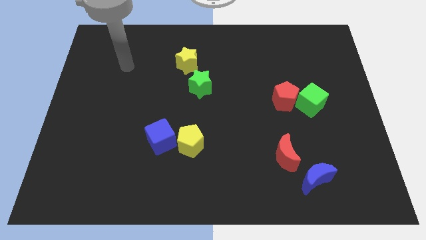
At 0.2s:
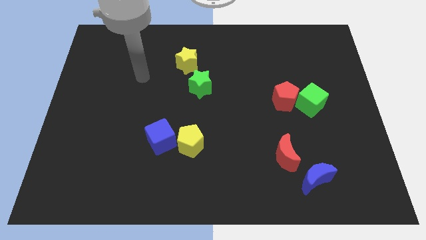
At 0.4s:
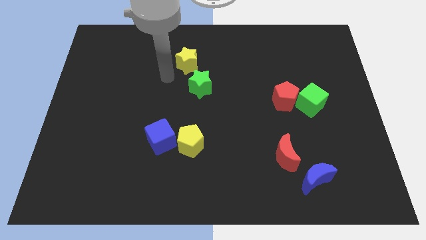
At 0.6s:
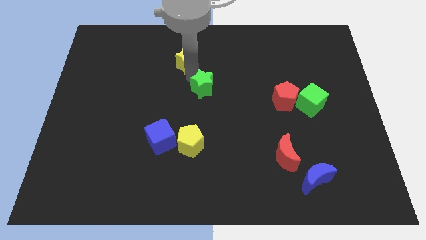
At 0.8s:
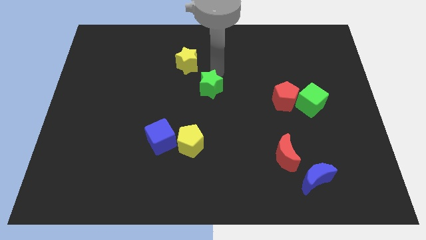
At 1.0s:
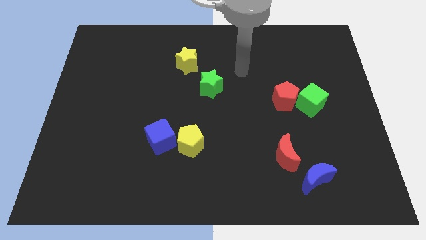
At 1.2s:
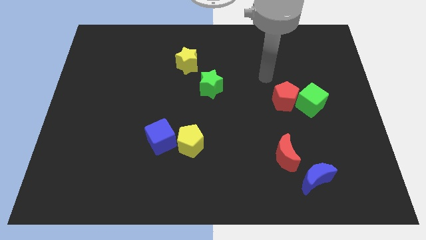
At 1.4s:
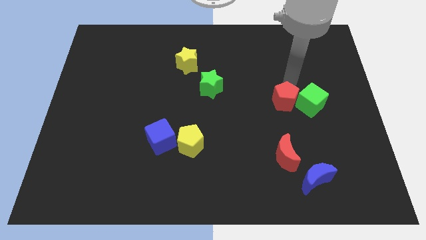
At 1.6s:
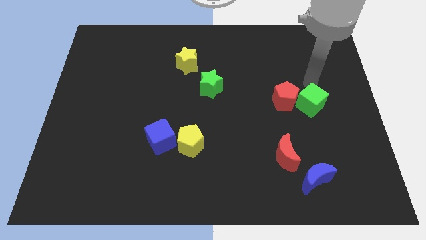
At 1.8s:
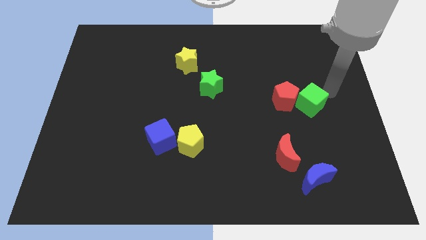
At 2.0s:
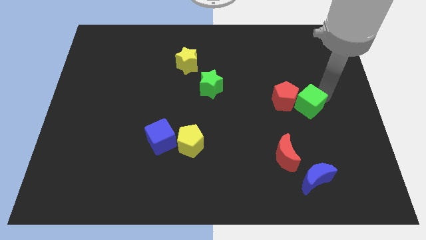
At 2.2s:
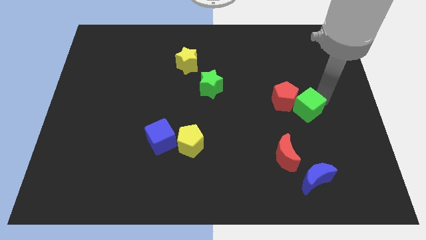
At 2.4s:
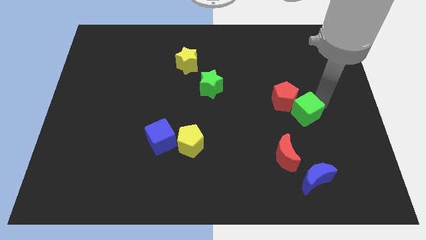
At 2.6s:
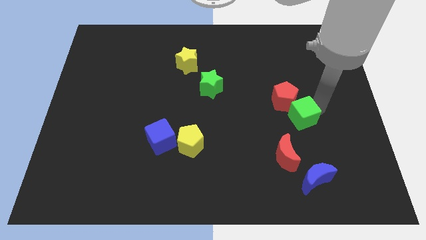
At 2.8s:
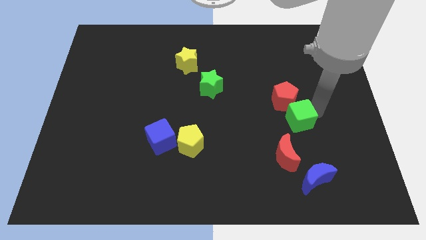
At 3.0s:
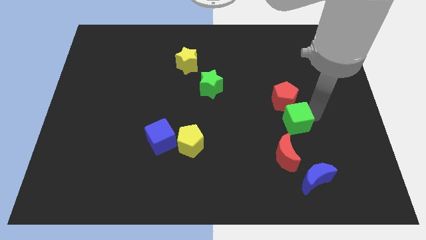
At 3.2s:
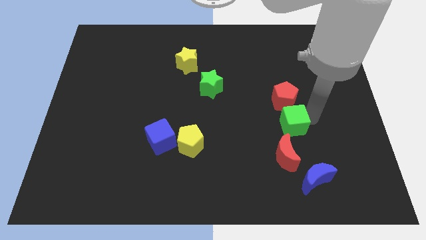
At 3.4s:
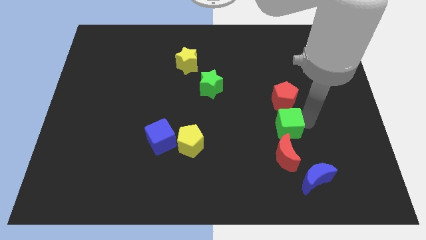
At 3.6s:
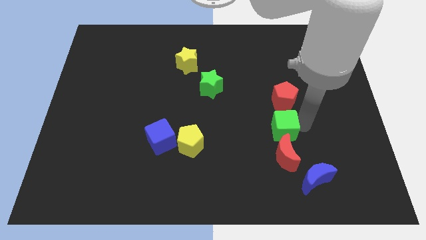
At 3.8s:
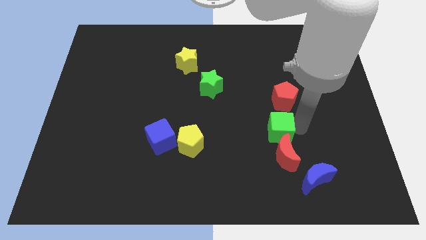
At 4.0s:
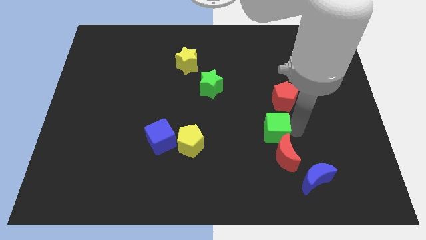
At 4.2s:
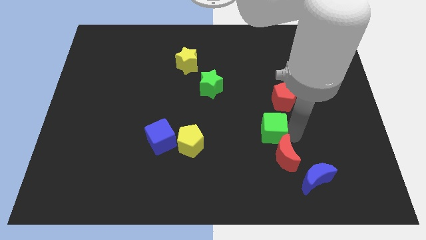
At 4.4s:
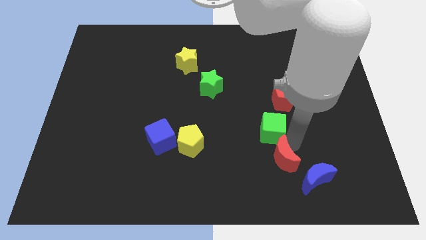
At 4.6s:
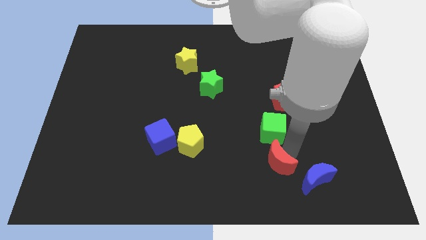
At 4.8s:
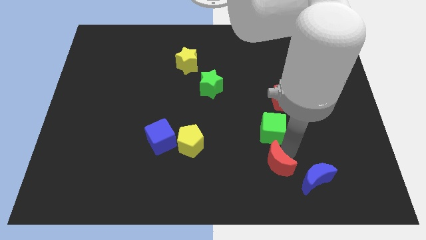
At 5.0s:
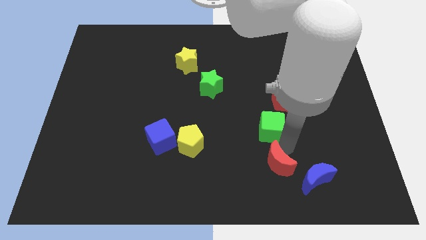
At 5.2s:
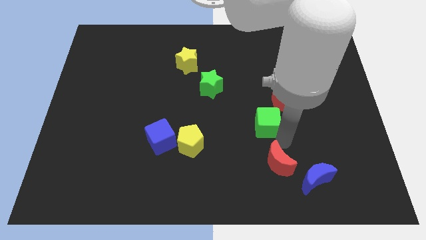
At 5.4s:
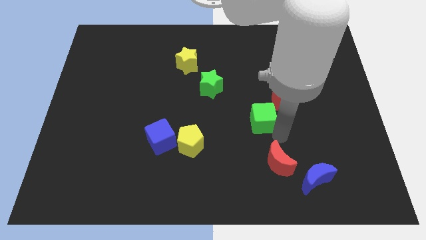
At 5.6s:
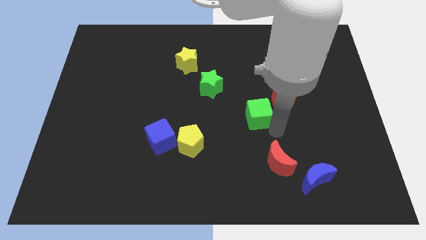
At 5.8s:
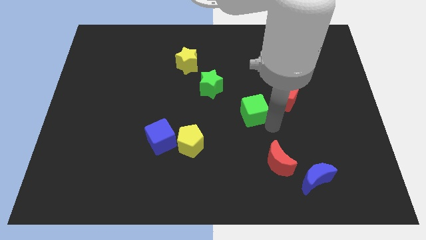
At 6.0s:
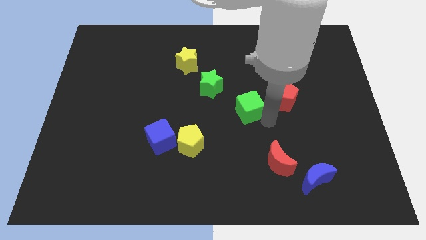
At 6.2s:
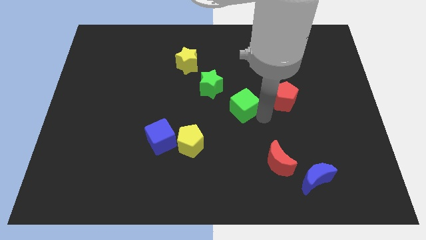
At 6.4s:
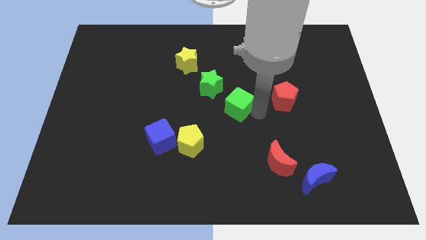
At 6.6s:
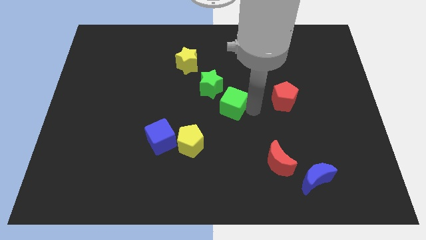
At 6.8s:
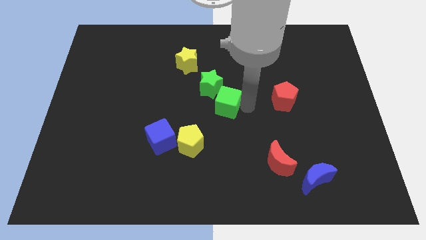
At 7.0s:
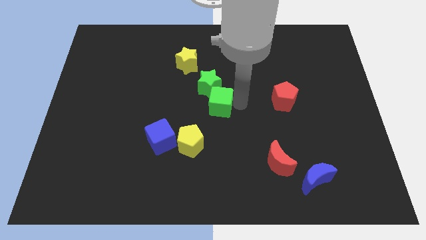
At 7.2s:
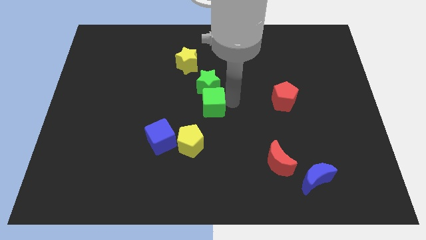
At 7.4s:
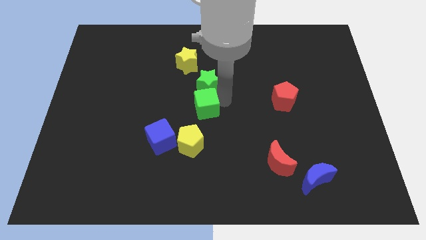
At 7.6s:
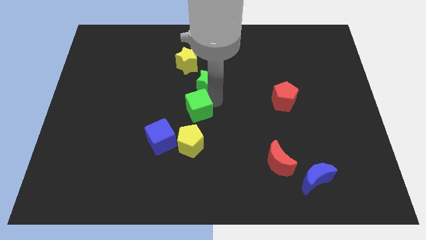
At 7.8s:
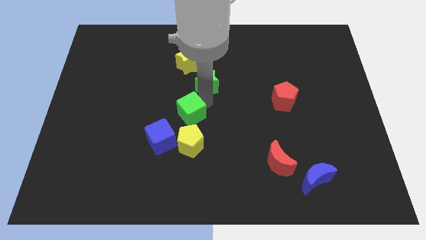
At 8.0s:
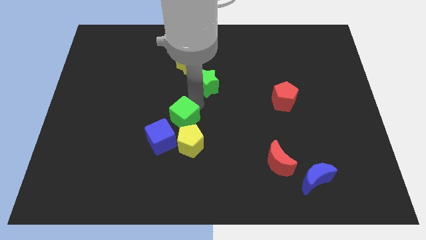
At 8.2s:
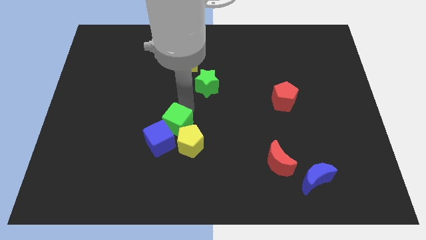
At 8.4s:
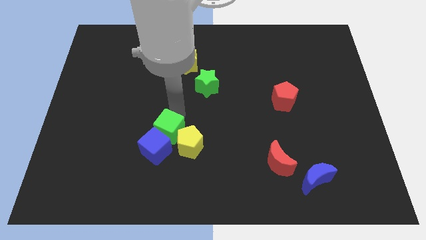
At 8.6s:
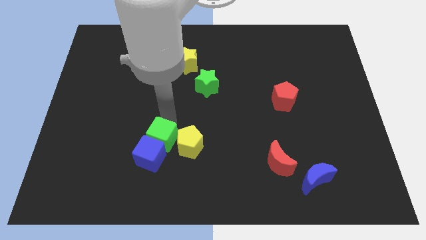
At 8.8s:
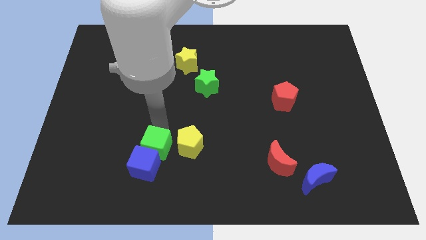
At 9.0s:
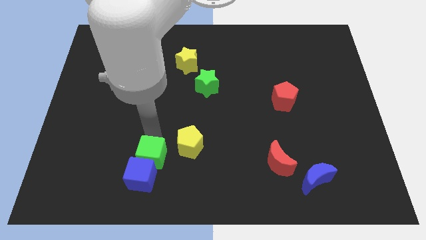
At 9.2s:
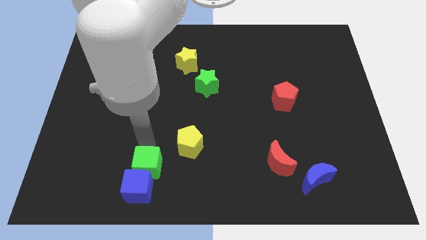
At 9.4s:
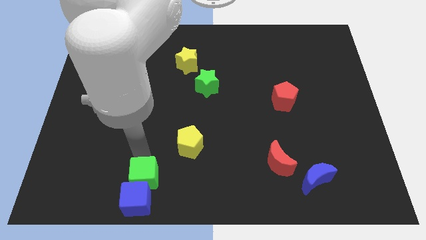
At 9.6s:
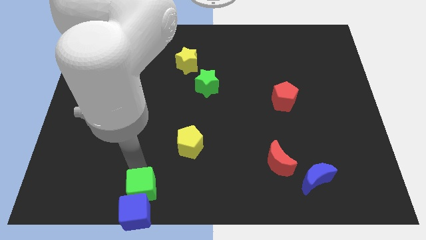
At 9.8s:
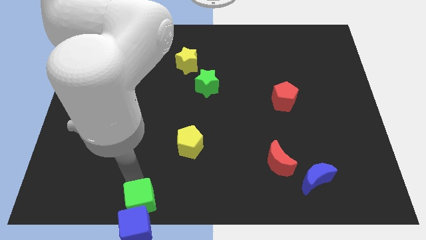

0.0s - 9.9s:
push the green cube to the bottom

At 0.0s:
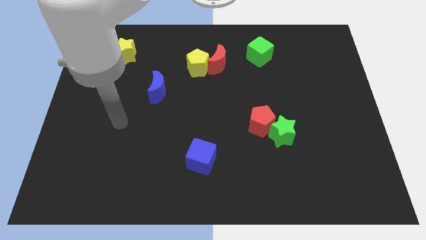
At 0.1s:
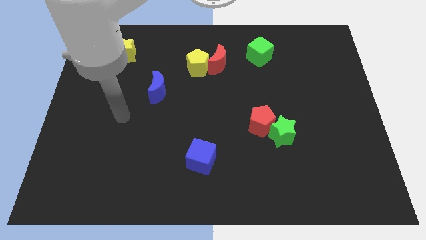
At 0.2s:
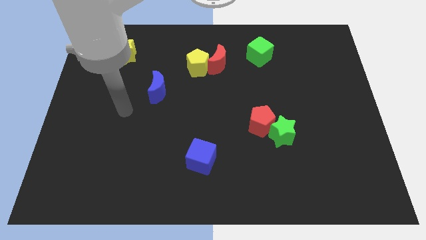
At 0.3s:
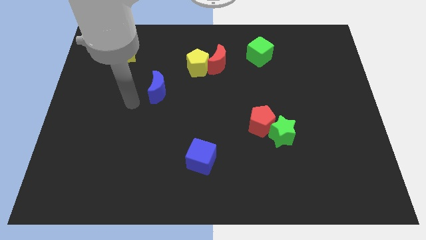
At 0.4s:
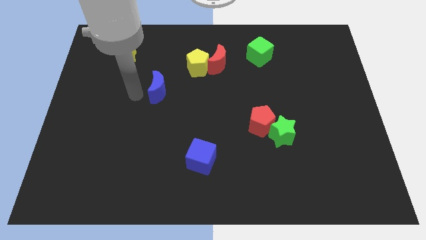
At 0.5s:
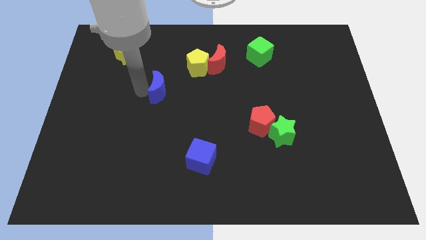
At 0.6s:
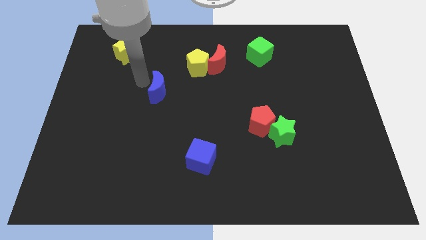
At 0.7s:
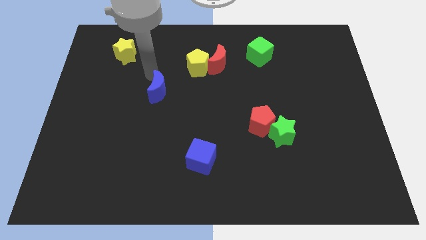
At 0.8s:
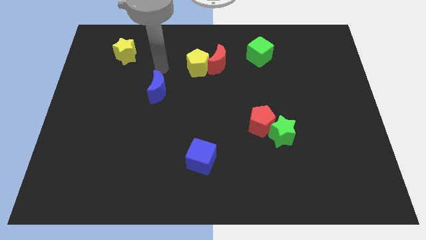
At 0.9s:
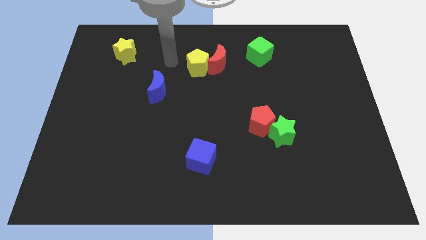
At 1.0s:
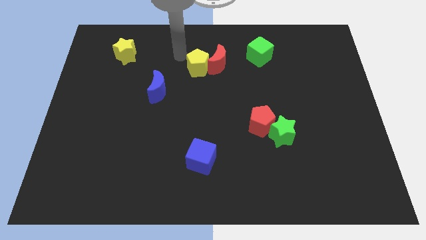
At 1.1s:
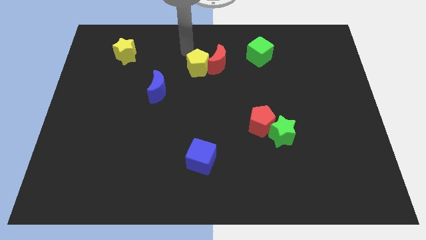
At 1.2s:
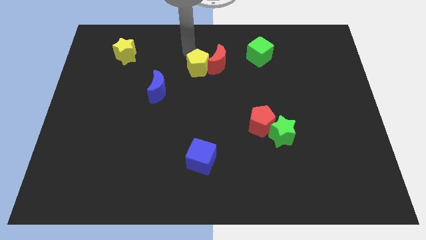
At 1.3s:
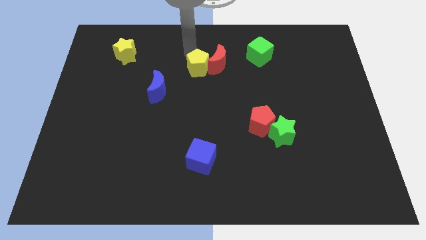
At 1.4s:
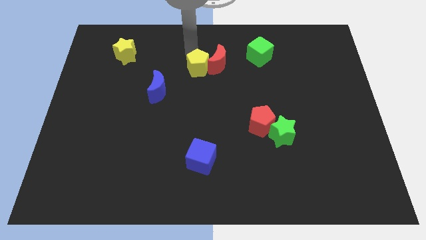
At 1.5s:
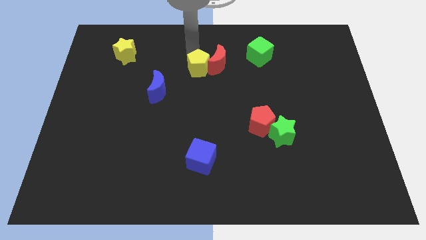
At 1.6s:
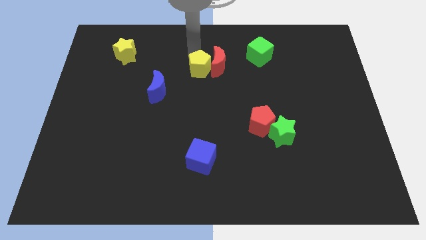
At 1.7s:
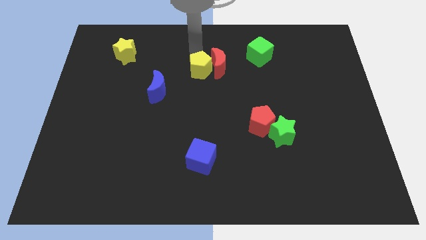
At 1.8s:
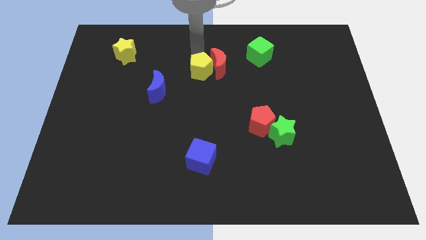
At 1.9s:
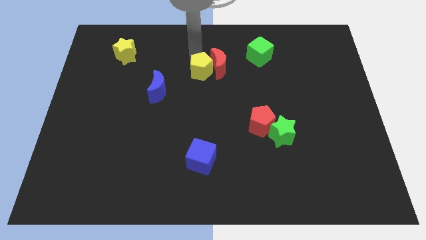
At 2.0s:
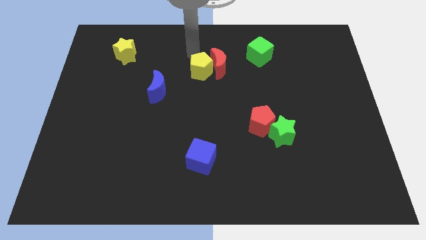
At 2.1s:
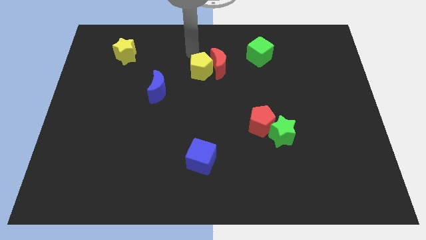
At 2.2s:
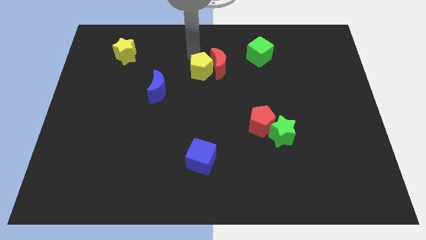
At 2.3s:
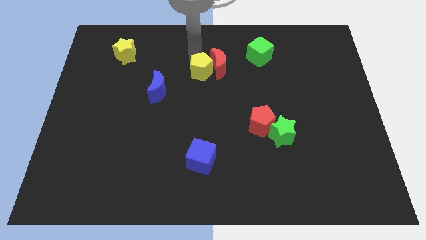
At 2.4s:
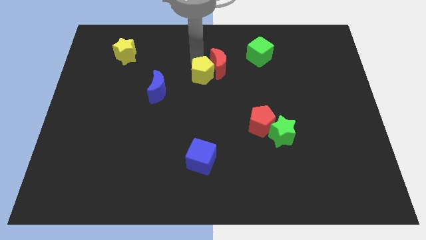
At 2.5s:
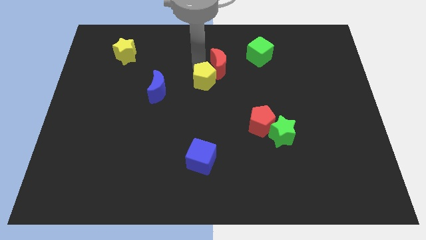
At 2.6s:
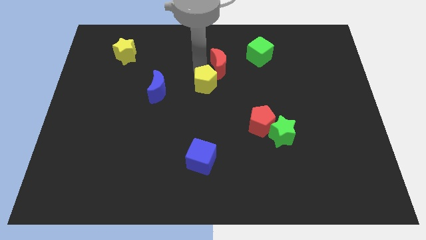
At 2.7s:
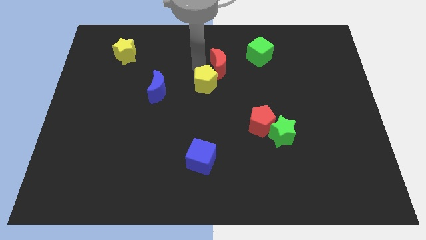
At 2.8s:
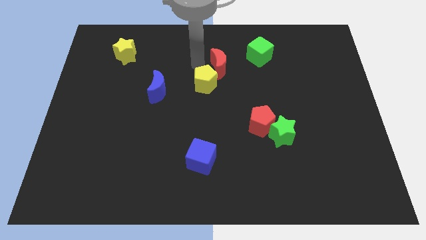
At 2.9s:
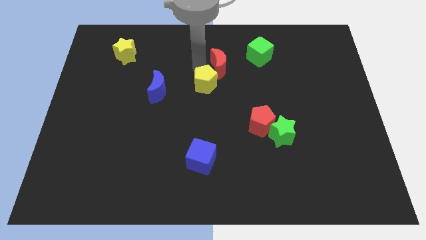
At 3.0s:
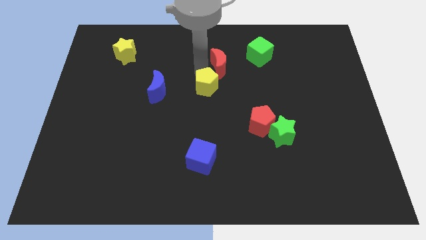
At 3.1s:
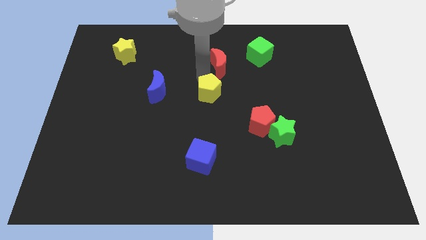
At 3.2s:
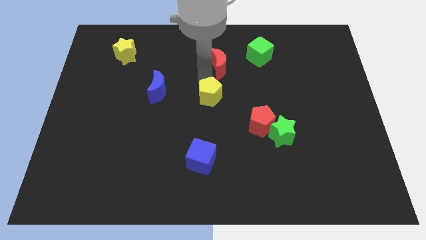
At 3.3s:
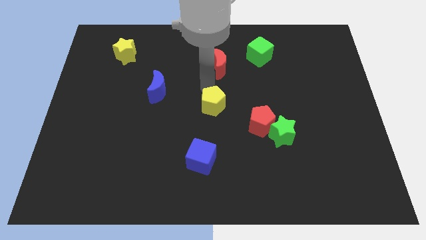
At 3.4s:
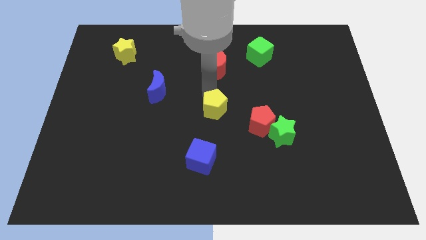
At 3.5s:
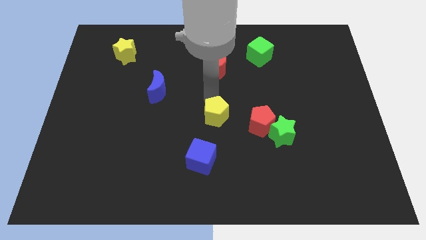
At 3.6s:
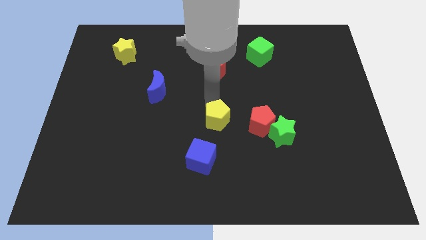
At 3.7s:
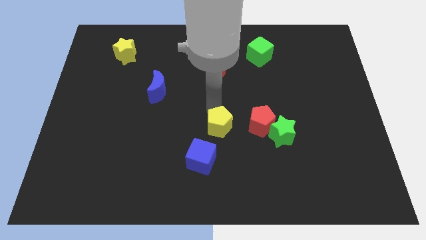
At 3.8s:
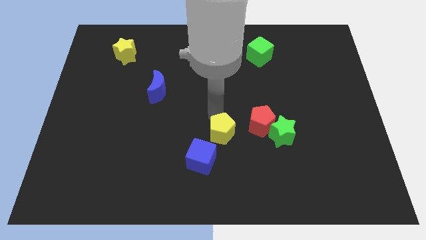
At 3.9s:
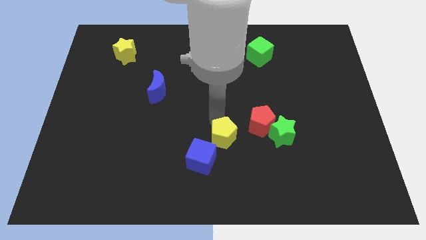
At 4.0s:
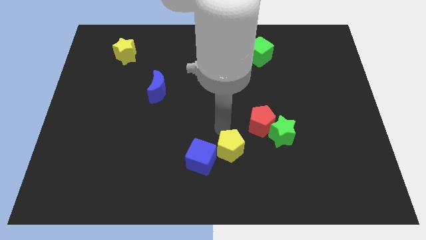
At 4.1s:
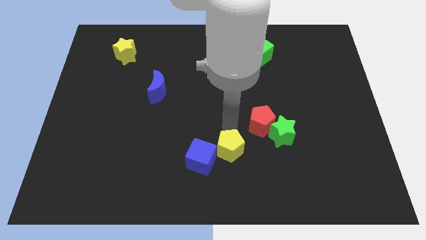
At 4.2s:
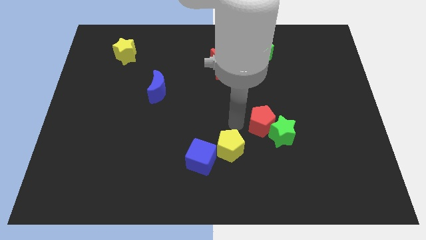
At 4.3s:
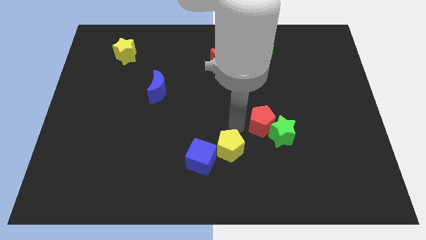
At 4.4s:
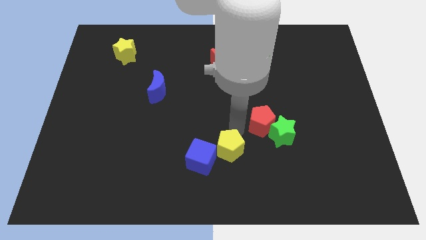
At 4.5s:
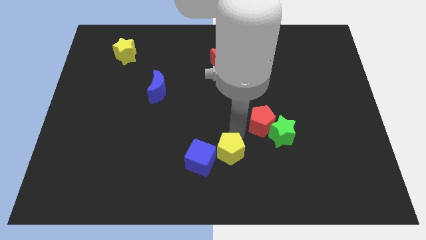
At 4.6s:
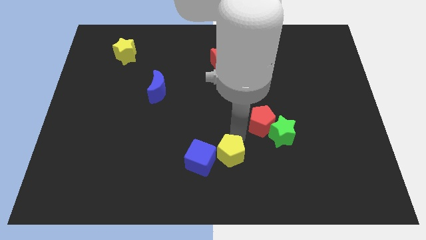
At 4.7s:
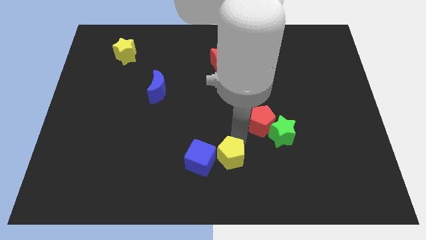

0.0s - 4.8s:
push the yellow pentagon to the bottom side
